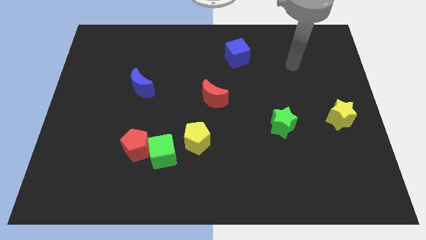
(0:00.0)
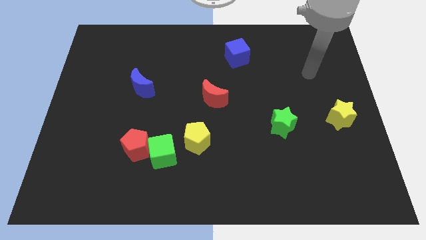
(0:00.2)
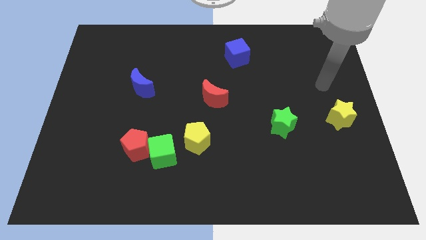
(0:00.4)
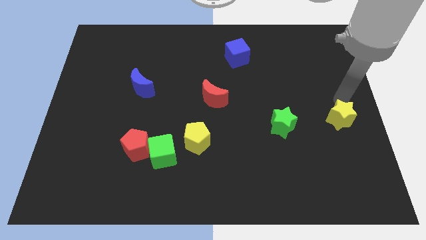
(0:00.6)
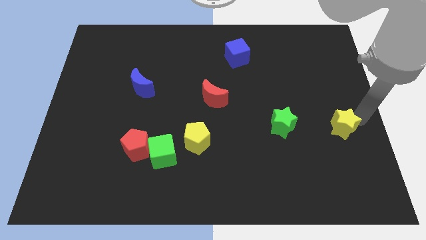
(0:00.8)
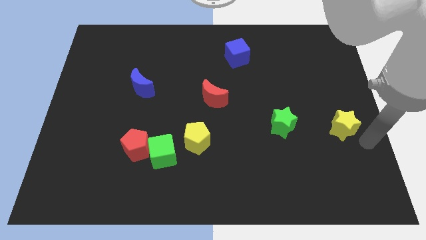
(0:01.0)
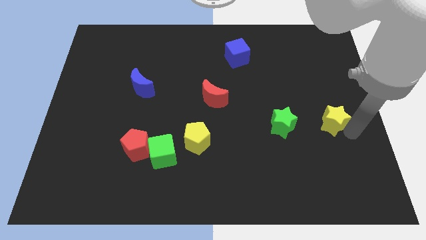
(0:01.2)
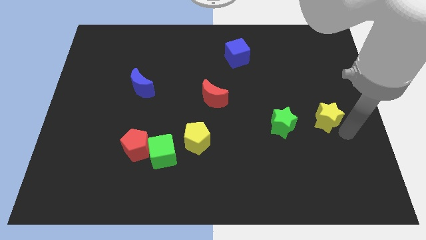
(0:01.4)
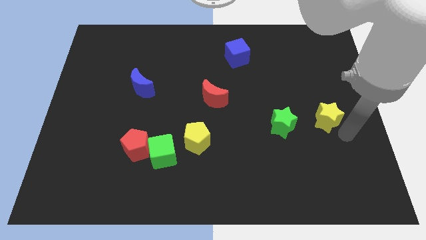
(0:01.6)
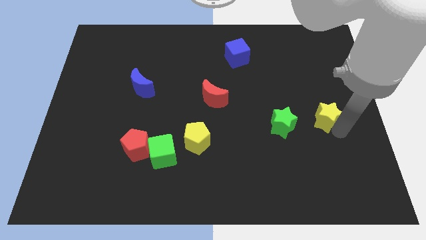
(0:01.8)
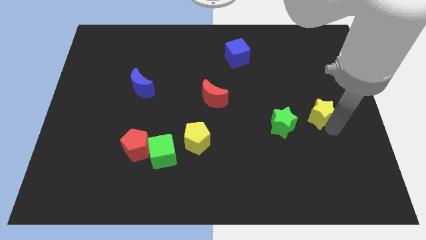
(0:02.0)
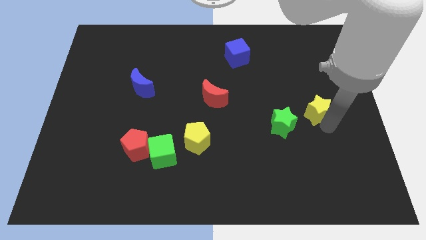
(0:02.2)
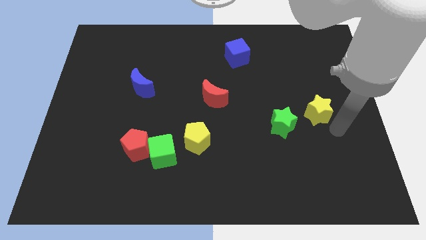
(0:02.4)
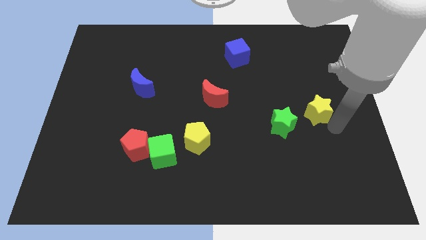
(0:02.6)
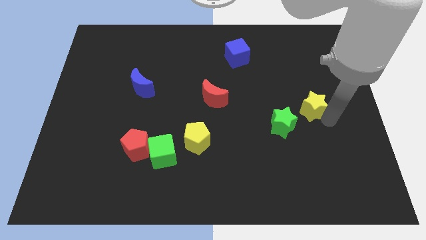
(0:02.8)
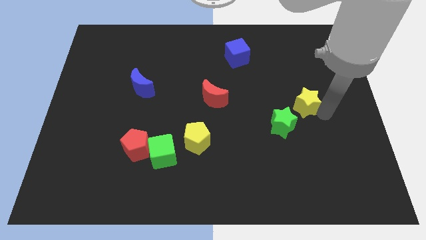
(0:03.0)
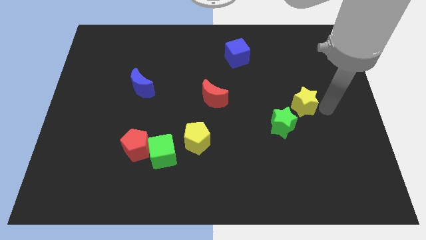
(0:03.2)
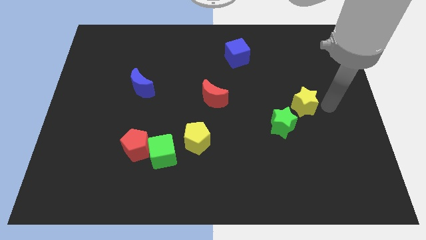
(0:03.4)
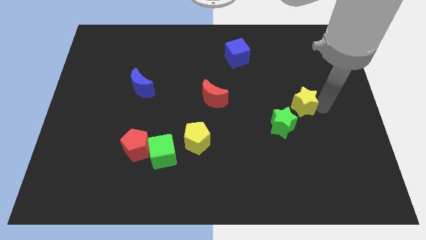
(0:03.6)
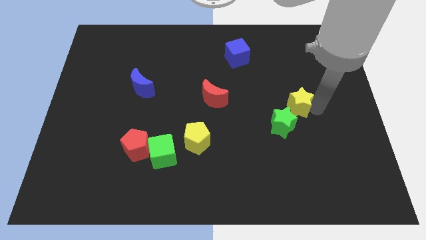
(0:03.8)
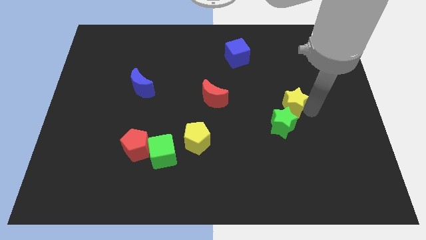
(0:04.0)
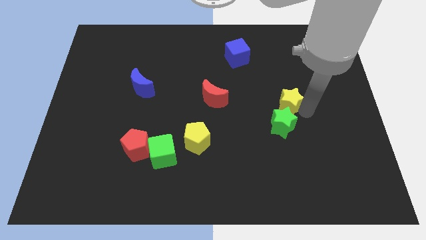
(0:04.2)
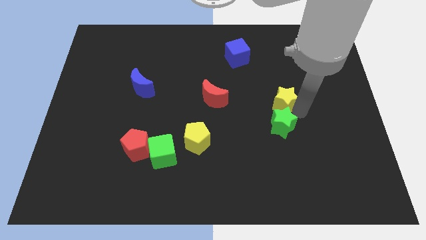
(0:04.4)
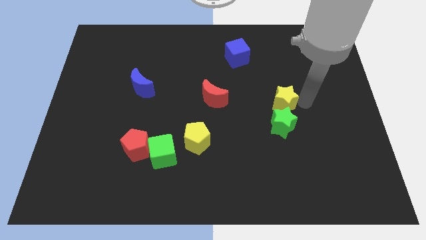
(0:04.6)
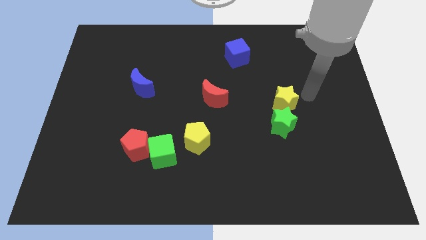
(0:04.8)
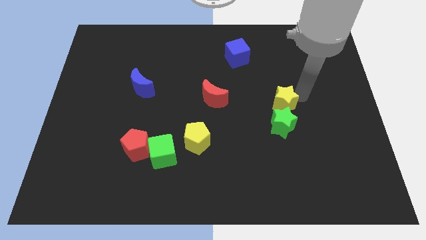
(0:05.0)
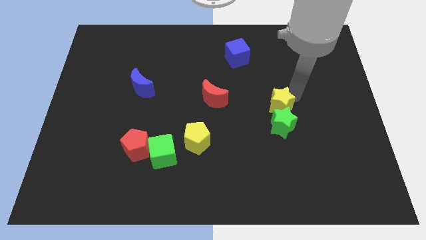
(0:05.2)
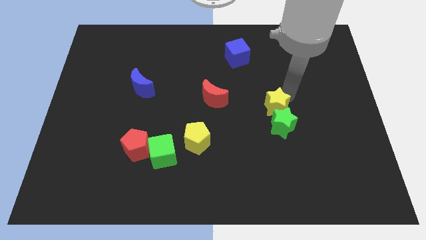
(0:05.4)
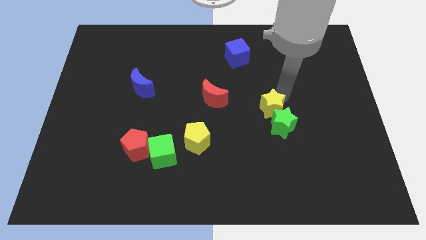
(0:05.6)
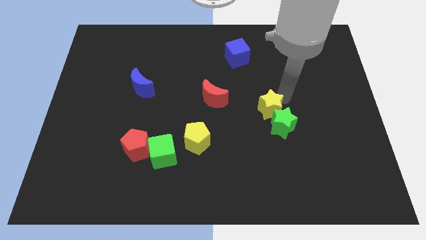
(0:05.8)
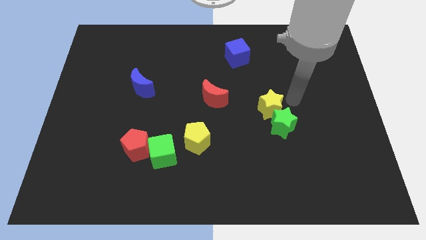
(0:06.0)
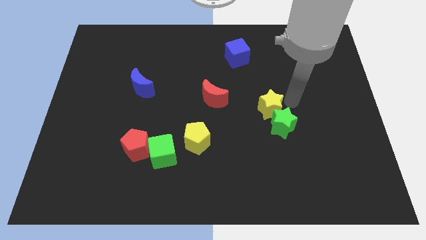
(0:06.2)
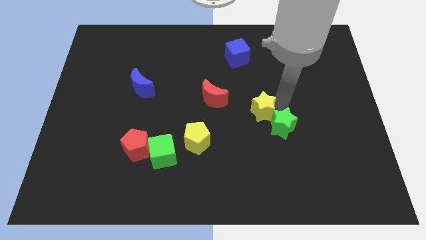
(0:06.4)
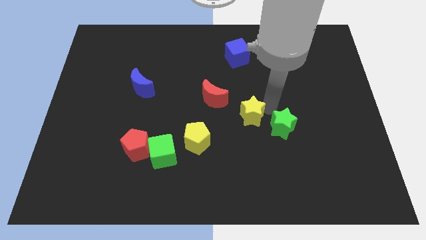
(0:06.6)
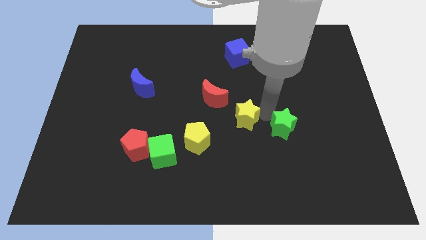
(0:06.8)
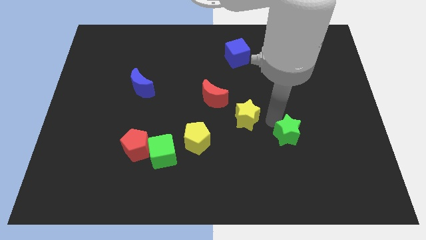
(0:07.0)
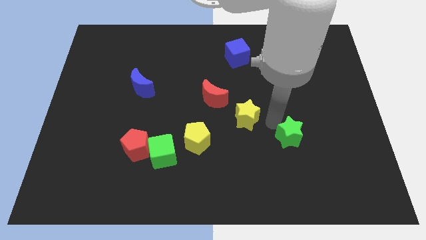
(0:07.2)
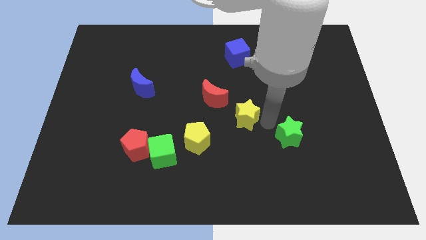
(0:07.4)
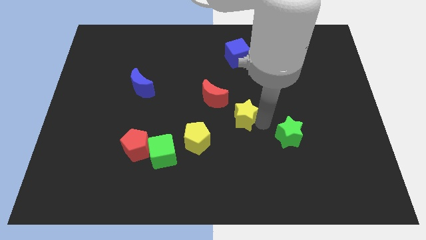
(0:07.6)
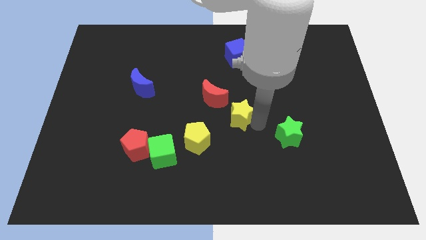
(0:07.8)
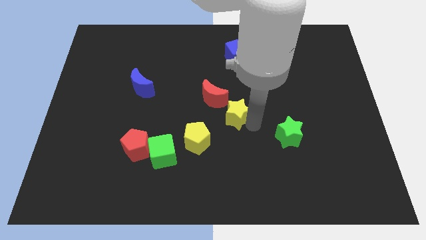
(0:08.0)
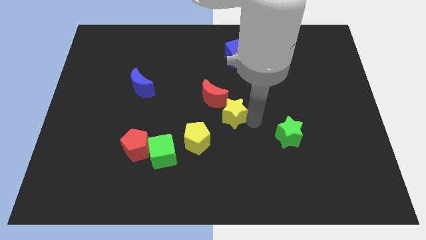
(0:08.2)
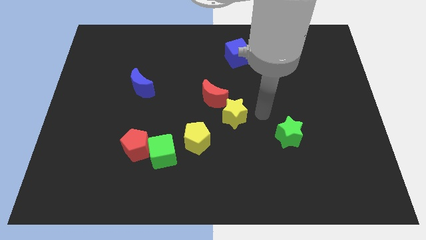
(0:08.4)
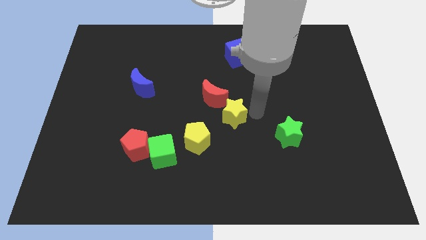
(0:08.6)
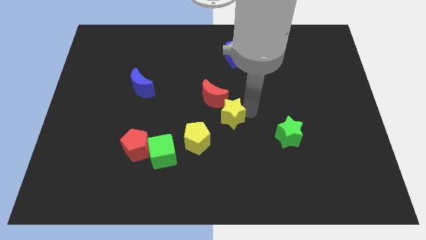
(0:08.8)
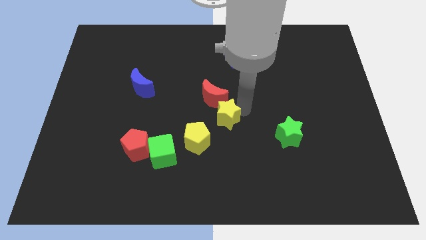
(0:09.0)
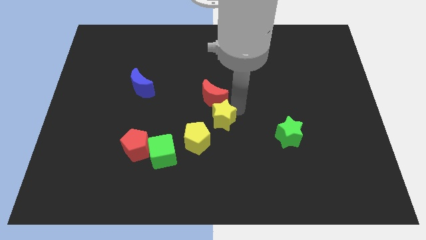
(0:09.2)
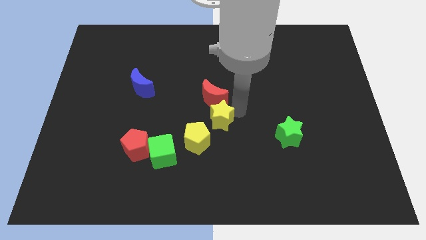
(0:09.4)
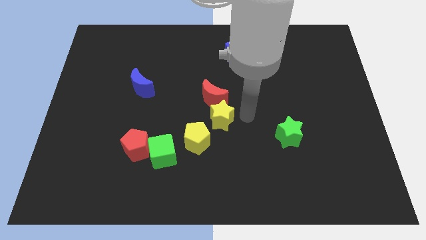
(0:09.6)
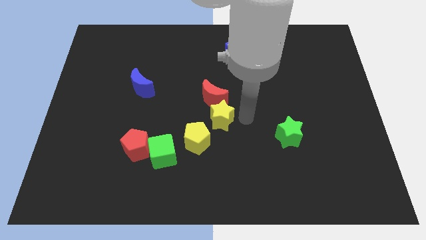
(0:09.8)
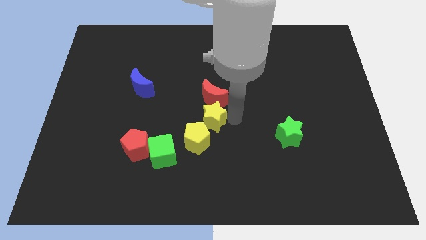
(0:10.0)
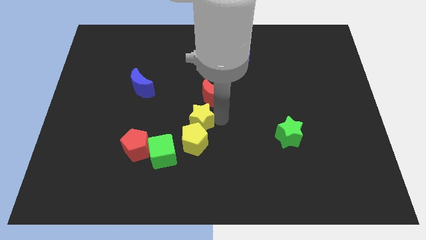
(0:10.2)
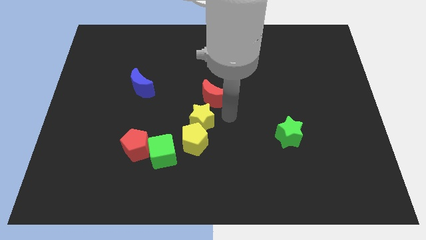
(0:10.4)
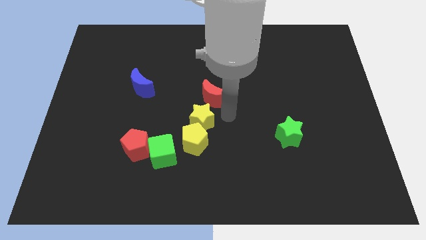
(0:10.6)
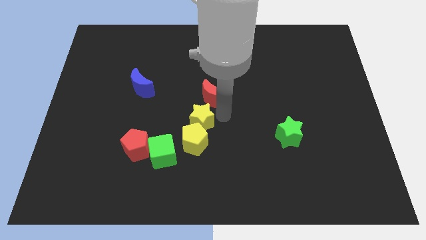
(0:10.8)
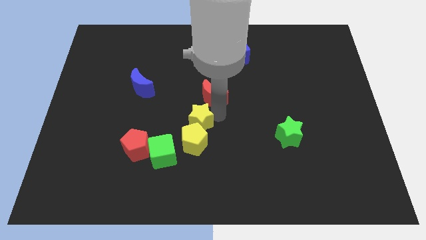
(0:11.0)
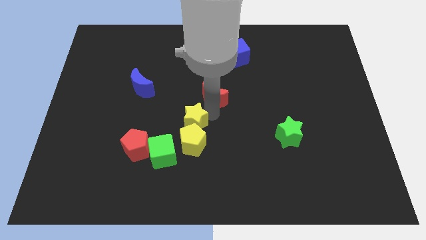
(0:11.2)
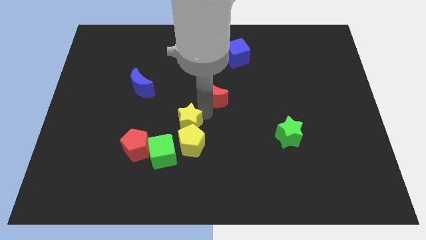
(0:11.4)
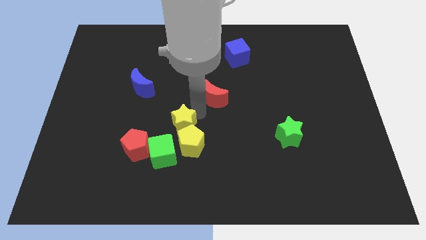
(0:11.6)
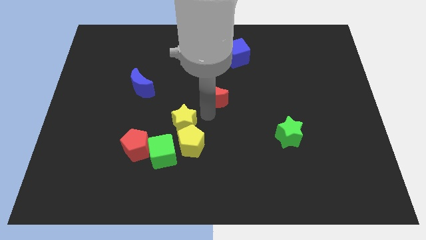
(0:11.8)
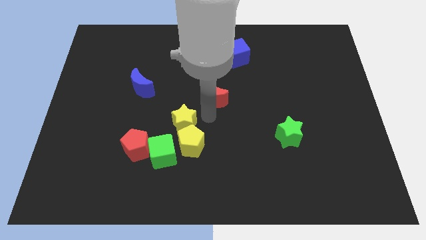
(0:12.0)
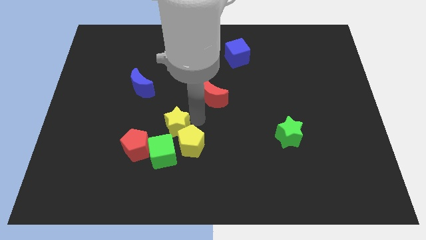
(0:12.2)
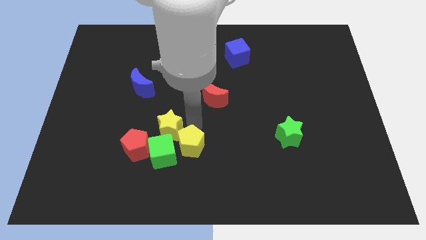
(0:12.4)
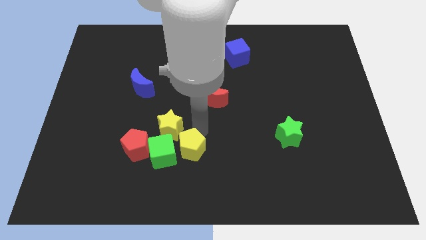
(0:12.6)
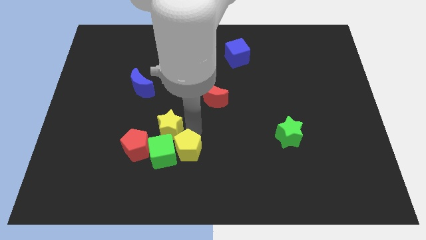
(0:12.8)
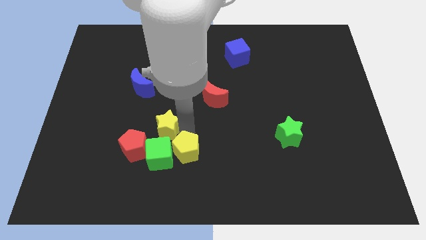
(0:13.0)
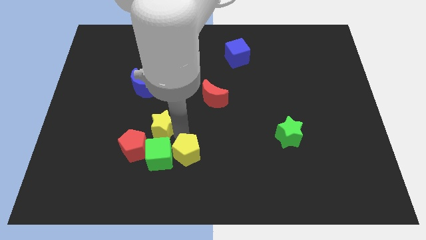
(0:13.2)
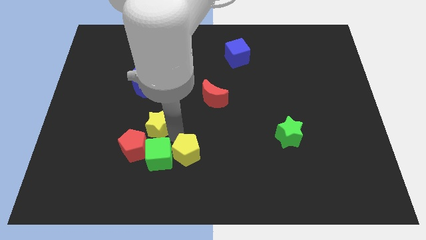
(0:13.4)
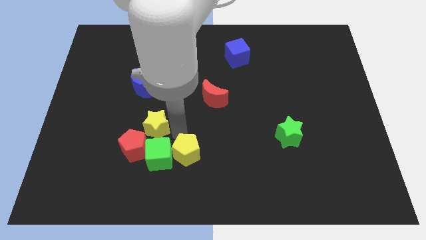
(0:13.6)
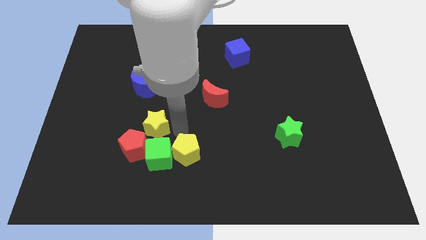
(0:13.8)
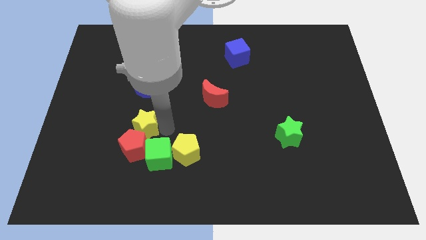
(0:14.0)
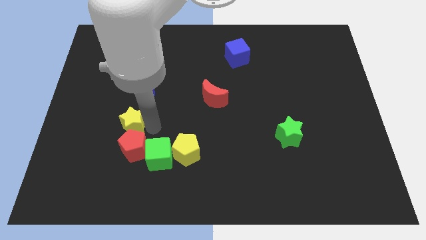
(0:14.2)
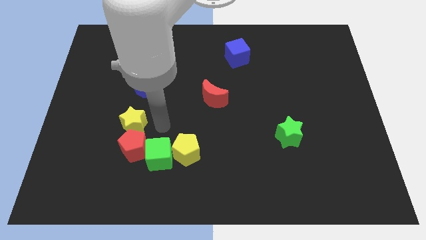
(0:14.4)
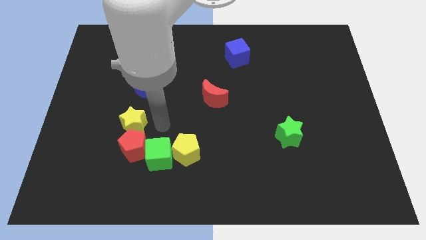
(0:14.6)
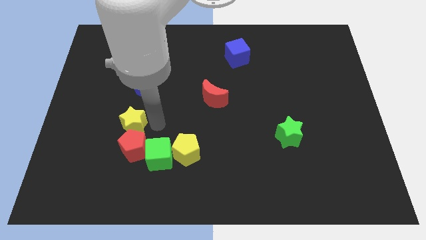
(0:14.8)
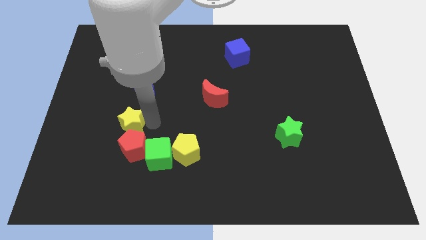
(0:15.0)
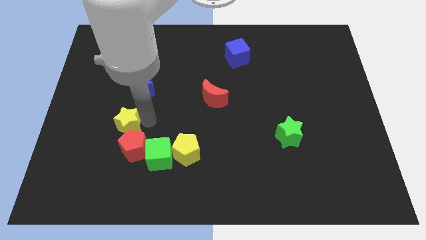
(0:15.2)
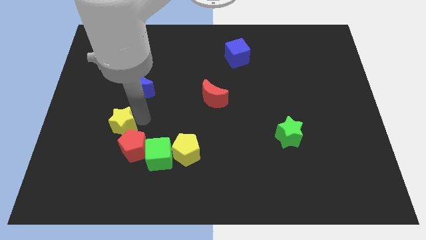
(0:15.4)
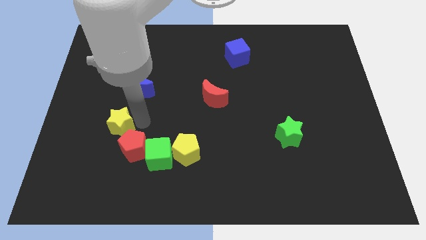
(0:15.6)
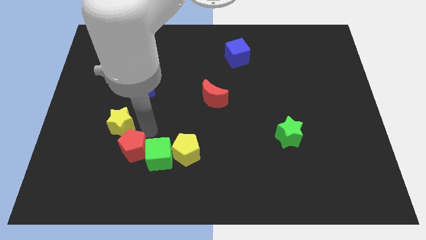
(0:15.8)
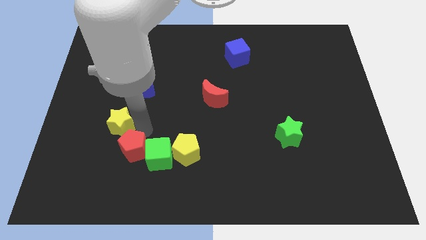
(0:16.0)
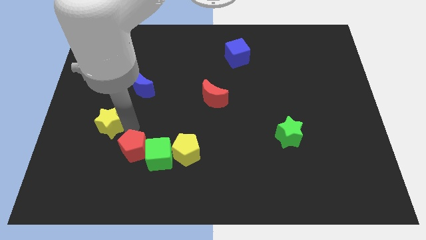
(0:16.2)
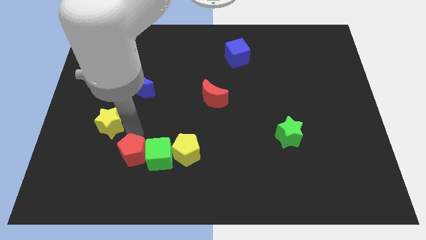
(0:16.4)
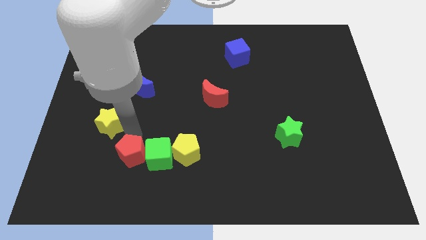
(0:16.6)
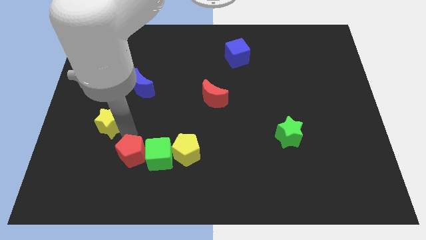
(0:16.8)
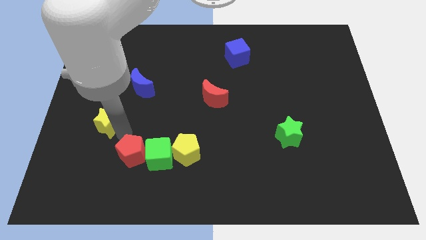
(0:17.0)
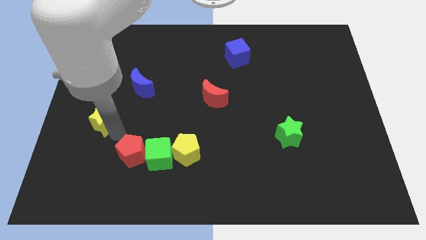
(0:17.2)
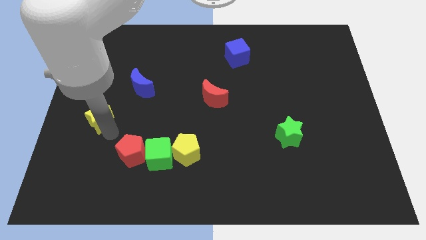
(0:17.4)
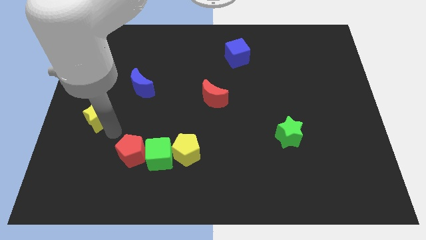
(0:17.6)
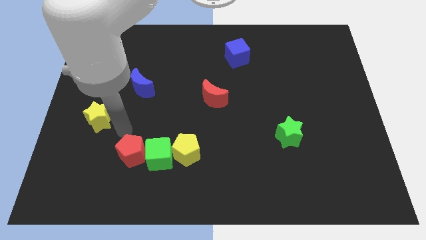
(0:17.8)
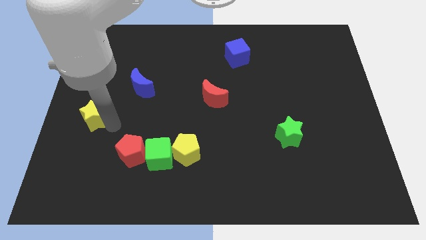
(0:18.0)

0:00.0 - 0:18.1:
put the yellow star to the left side
